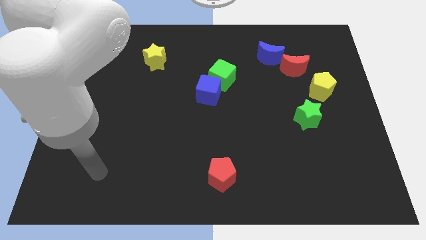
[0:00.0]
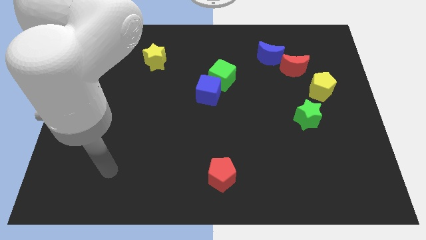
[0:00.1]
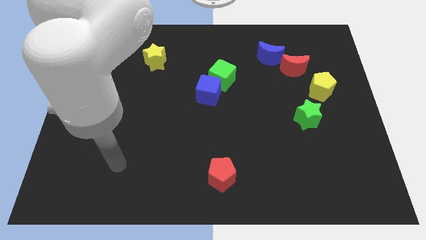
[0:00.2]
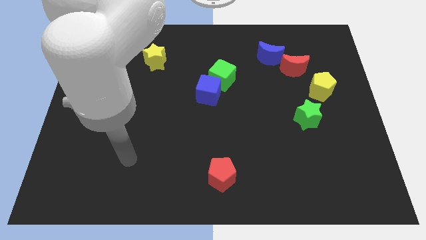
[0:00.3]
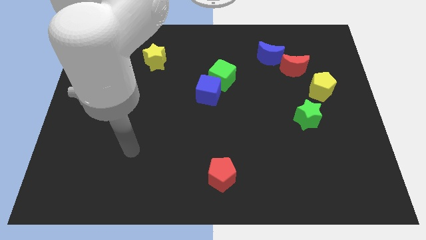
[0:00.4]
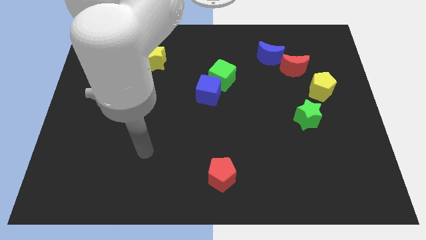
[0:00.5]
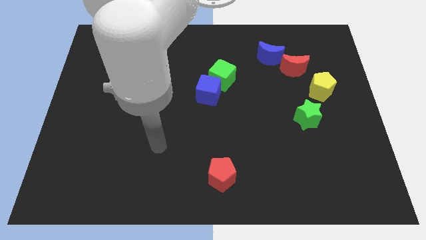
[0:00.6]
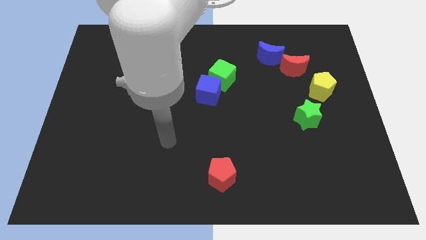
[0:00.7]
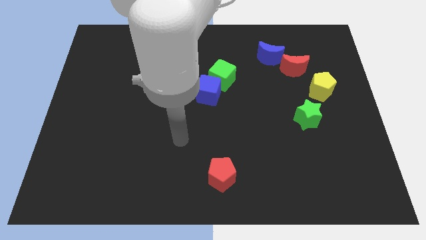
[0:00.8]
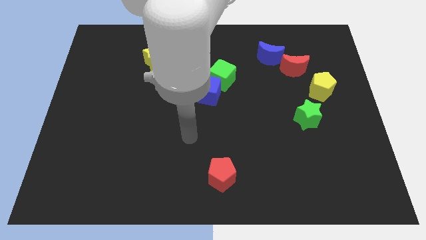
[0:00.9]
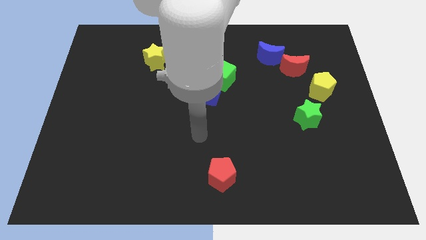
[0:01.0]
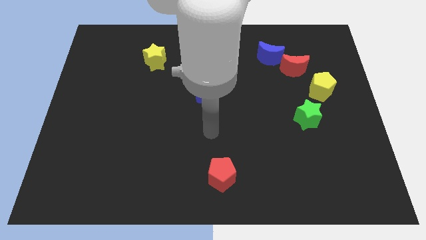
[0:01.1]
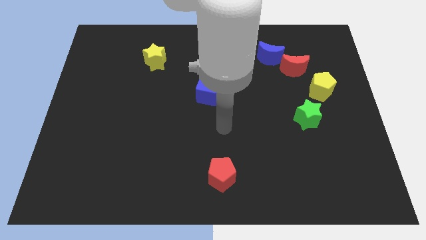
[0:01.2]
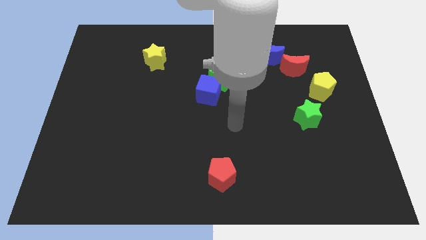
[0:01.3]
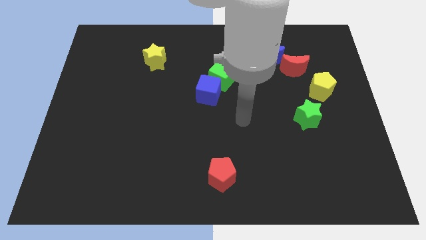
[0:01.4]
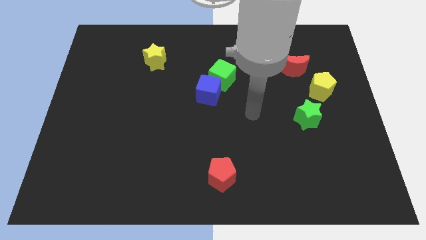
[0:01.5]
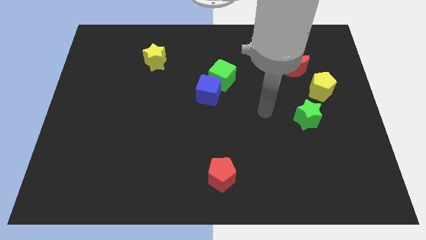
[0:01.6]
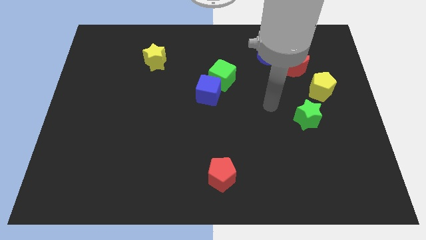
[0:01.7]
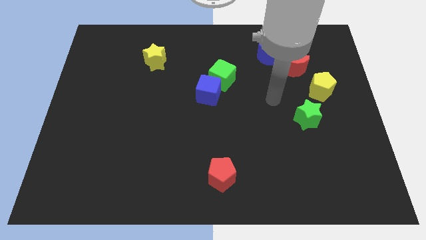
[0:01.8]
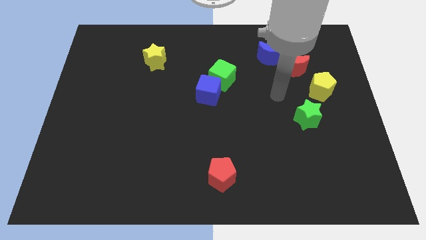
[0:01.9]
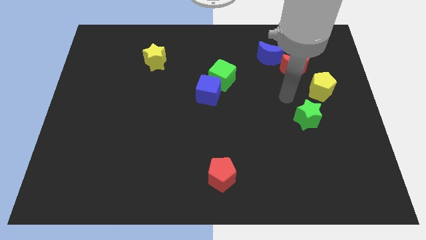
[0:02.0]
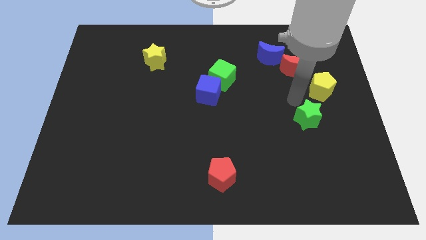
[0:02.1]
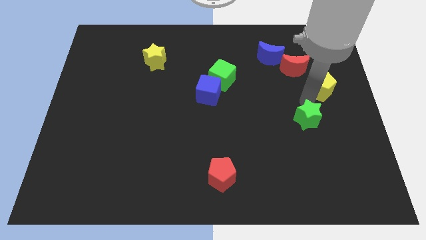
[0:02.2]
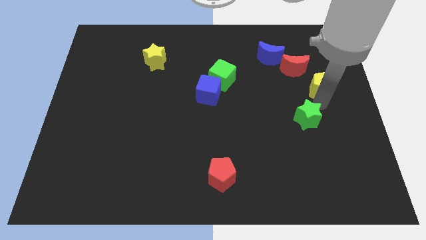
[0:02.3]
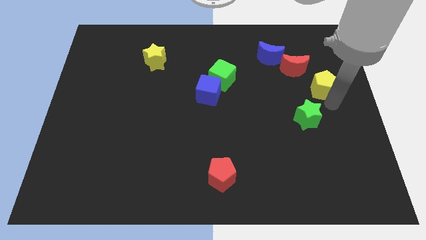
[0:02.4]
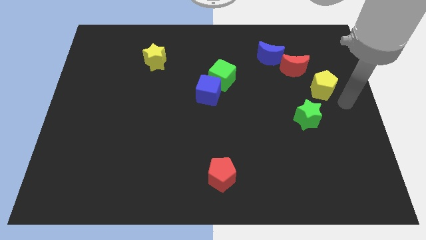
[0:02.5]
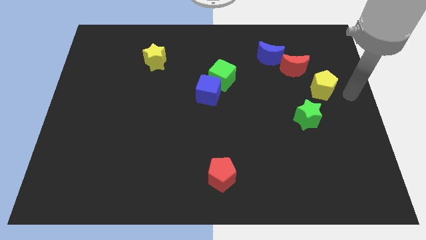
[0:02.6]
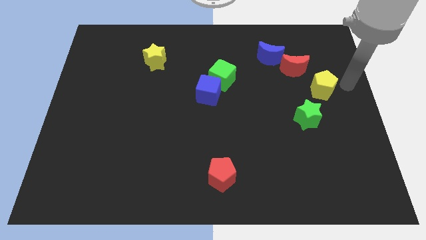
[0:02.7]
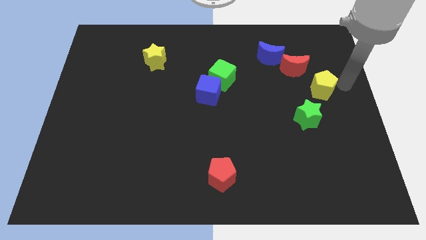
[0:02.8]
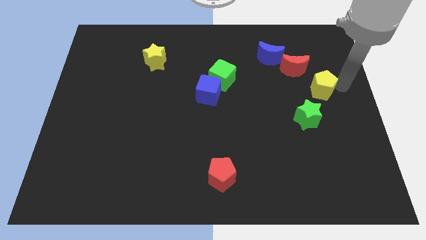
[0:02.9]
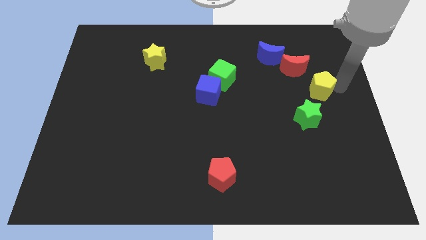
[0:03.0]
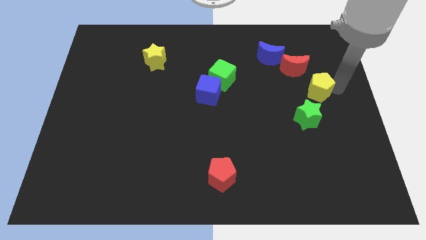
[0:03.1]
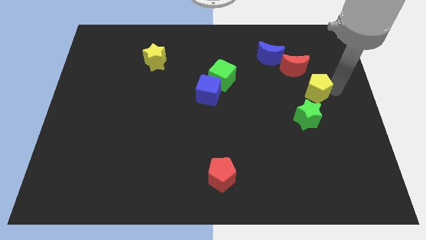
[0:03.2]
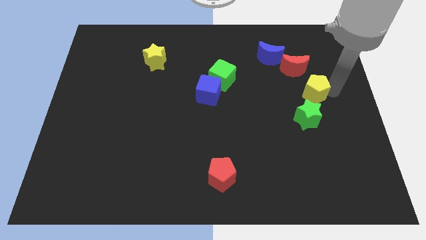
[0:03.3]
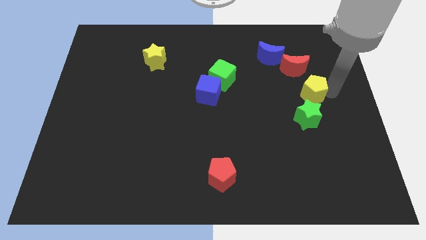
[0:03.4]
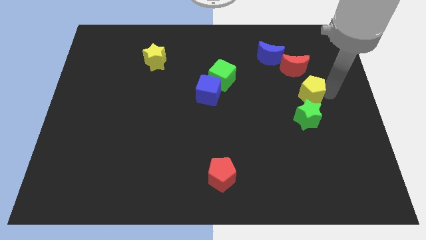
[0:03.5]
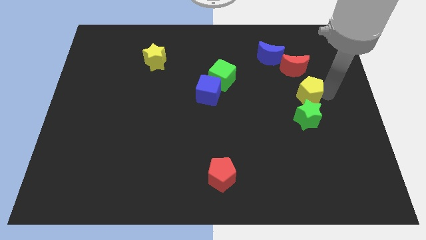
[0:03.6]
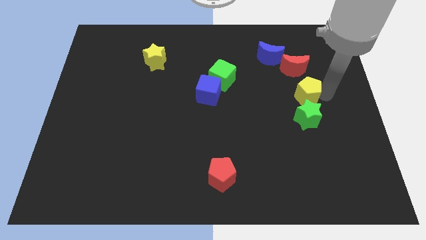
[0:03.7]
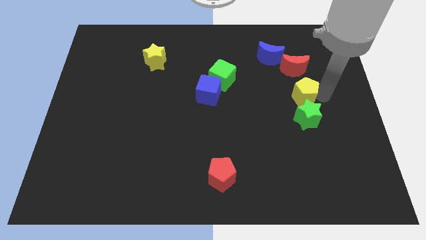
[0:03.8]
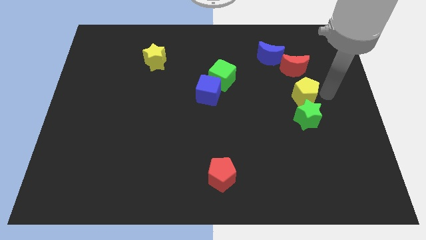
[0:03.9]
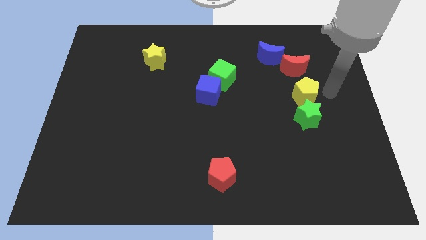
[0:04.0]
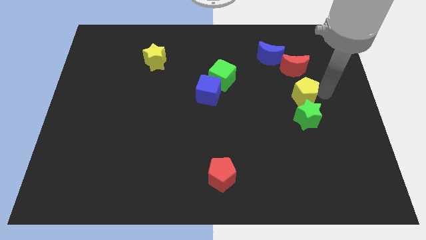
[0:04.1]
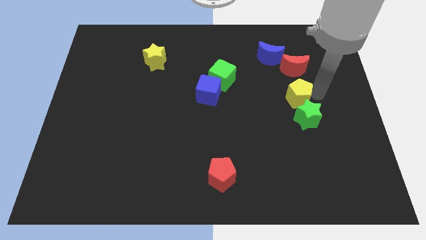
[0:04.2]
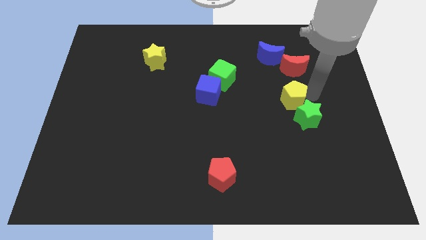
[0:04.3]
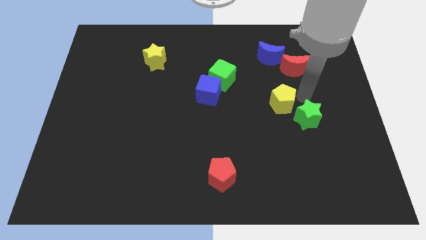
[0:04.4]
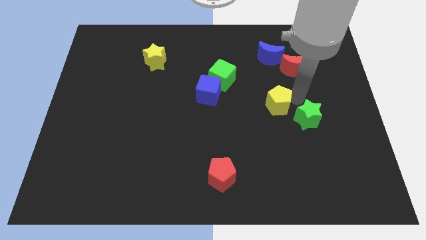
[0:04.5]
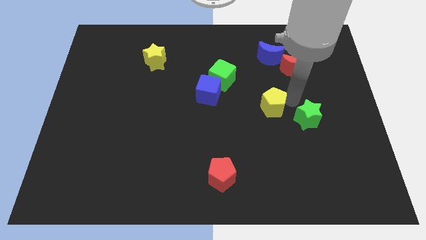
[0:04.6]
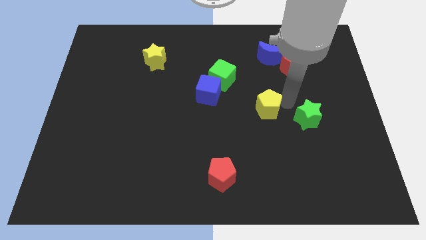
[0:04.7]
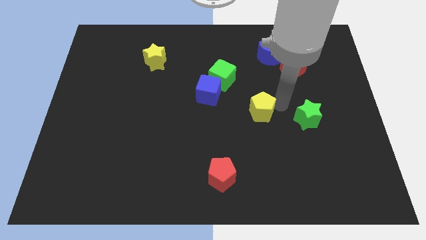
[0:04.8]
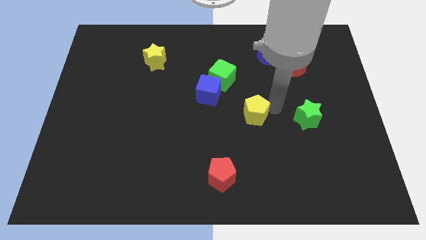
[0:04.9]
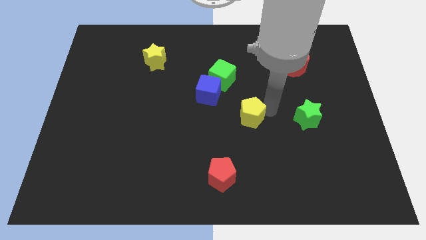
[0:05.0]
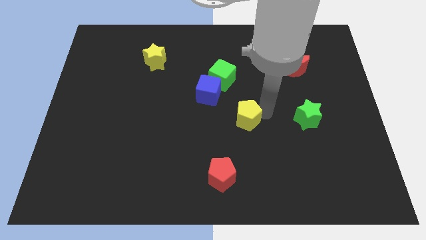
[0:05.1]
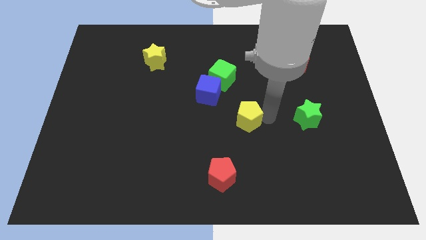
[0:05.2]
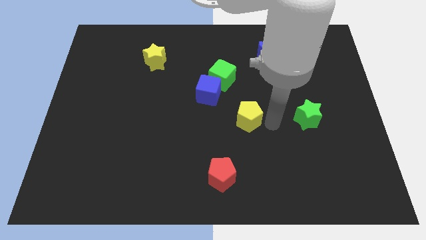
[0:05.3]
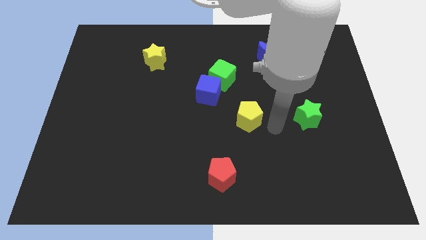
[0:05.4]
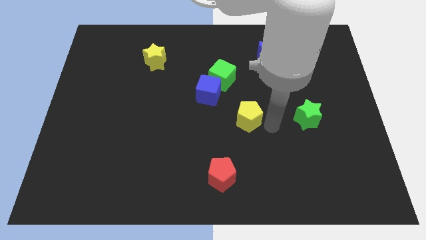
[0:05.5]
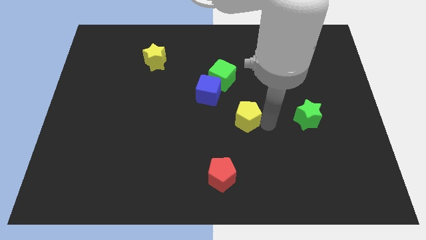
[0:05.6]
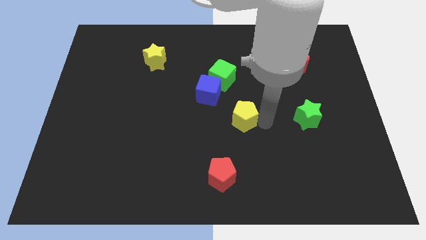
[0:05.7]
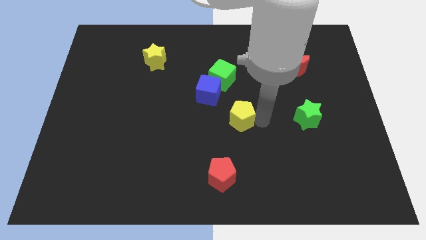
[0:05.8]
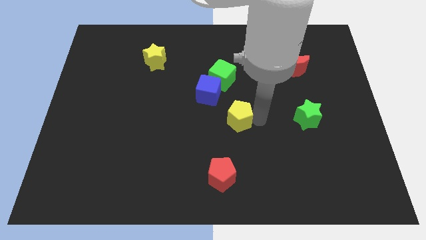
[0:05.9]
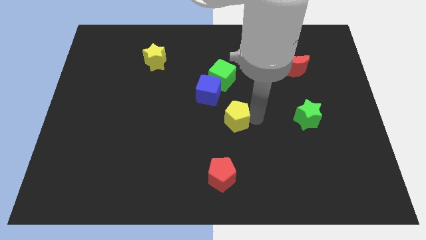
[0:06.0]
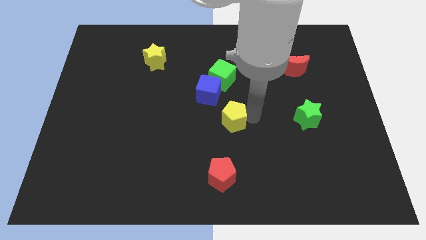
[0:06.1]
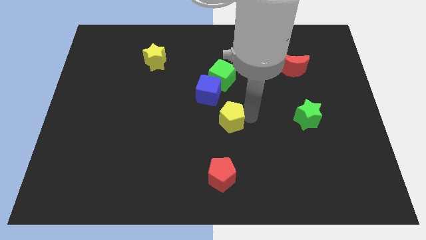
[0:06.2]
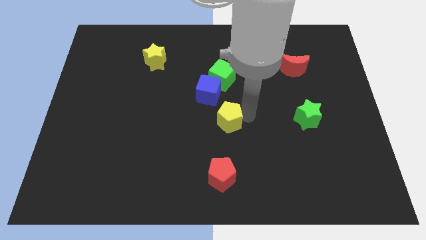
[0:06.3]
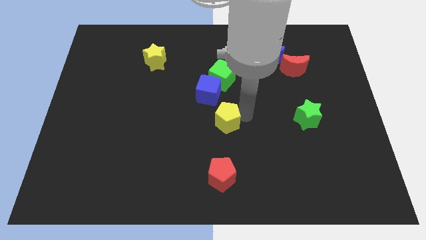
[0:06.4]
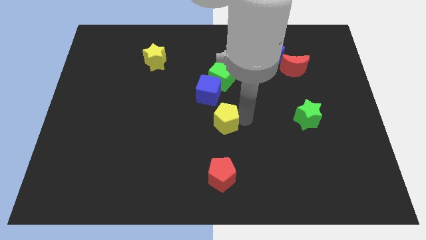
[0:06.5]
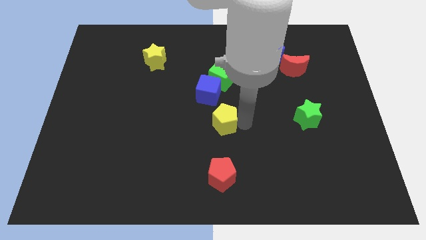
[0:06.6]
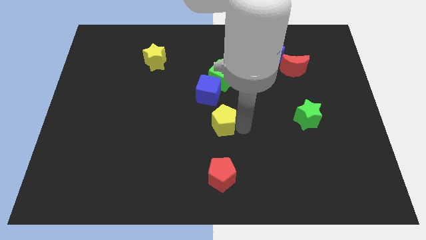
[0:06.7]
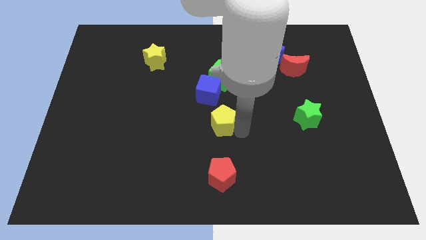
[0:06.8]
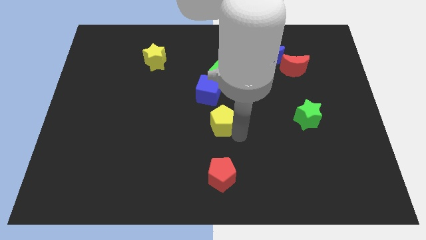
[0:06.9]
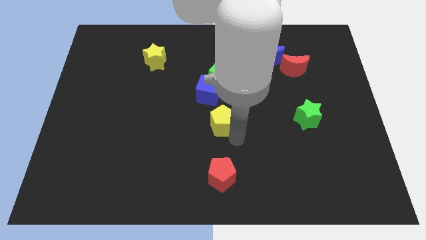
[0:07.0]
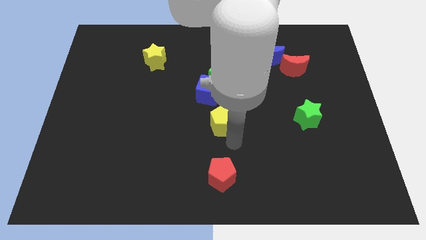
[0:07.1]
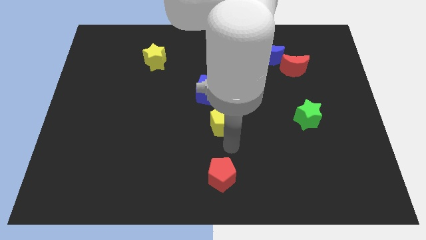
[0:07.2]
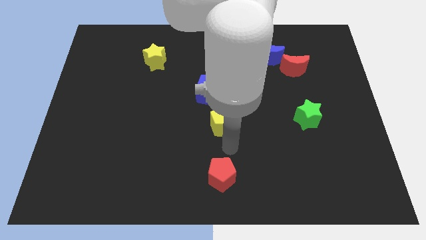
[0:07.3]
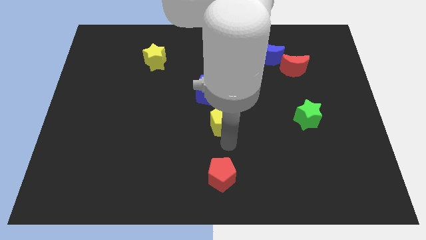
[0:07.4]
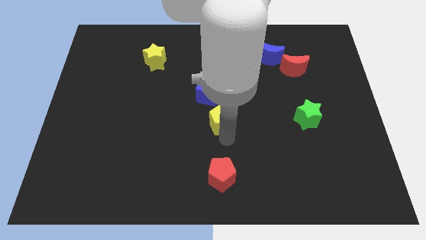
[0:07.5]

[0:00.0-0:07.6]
push the yellow pentagon to the left

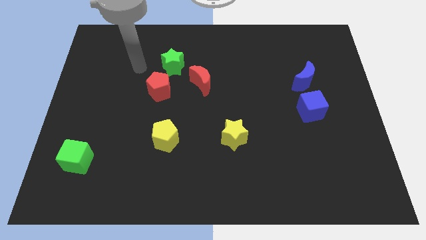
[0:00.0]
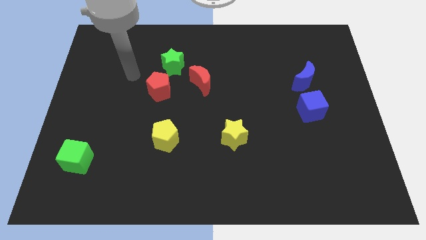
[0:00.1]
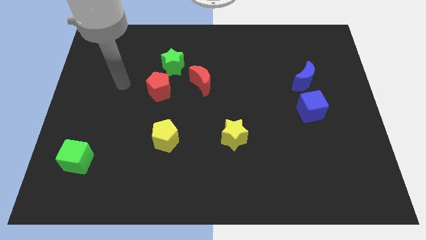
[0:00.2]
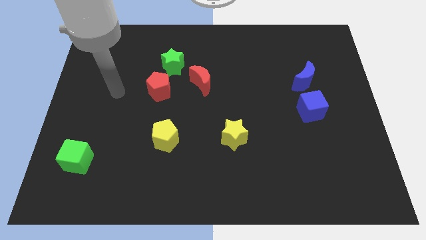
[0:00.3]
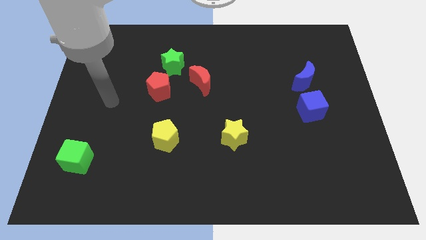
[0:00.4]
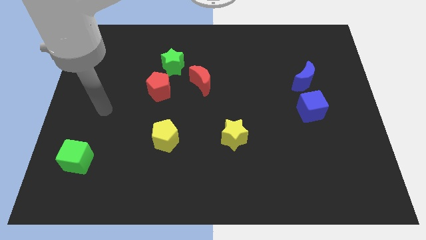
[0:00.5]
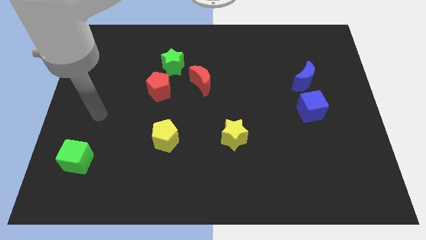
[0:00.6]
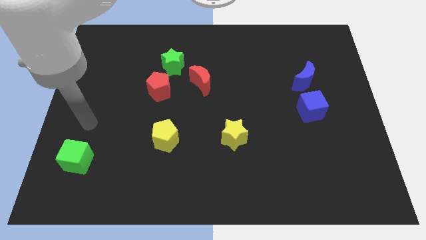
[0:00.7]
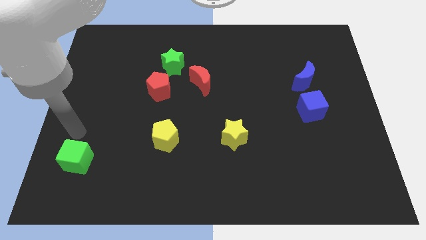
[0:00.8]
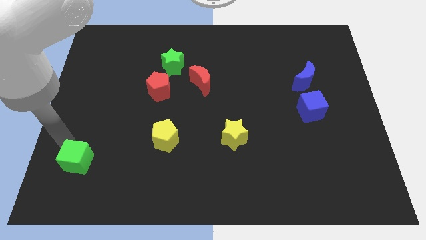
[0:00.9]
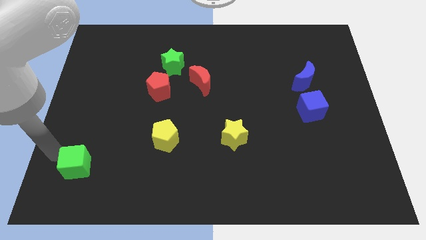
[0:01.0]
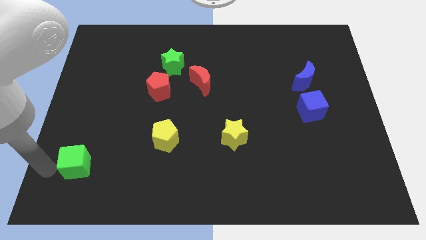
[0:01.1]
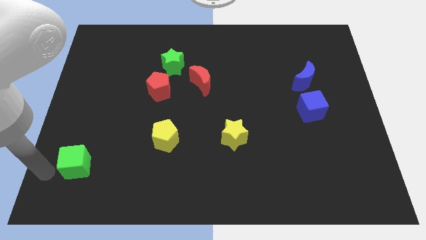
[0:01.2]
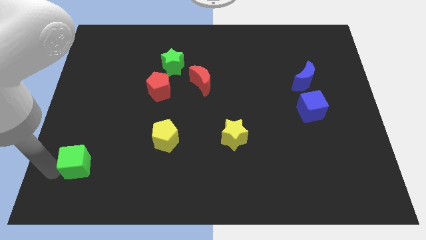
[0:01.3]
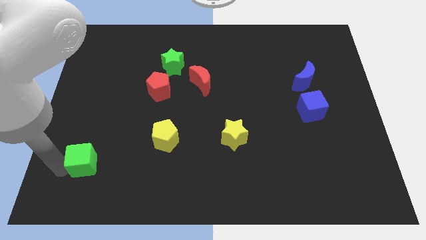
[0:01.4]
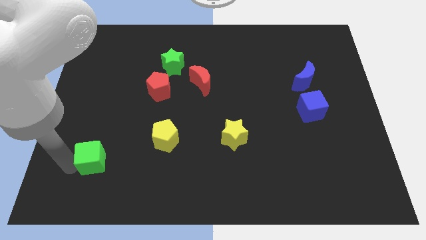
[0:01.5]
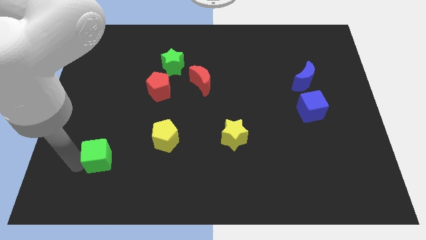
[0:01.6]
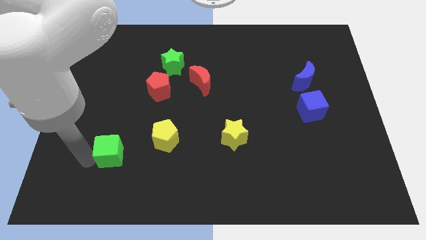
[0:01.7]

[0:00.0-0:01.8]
slightly move the green cube to the right
